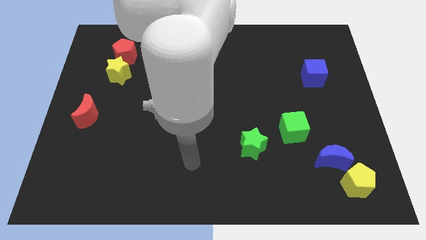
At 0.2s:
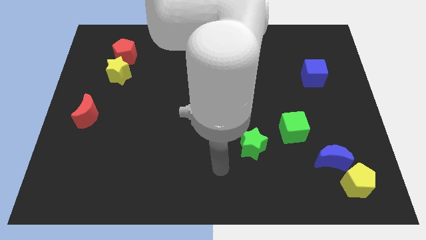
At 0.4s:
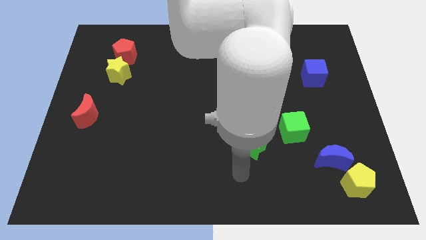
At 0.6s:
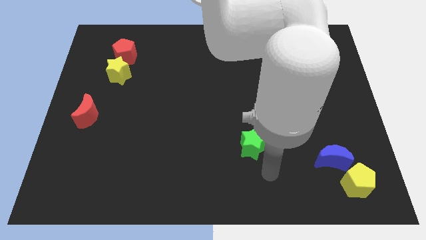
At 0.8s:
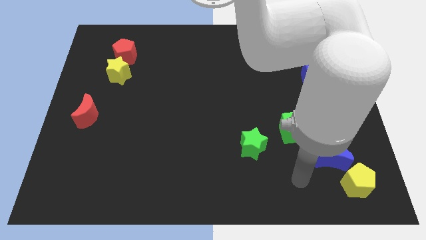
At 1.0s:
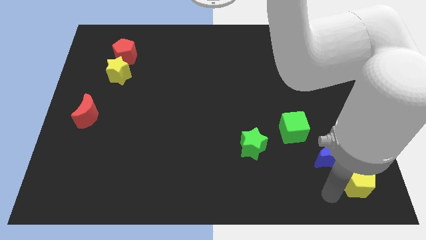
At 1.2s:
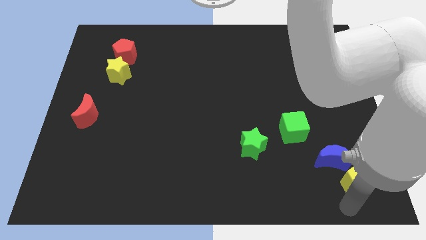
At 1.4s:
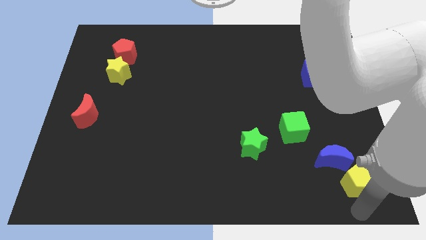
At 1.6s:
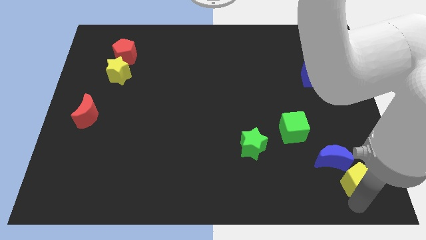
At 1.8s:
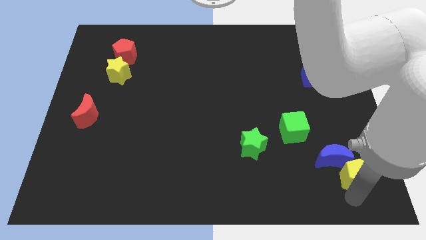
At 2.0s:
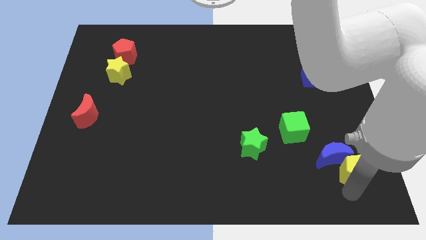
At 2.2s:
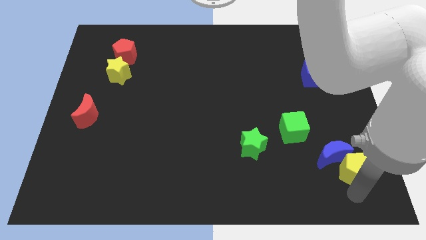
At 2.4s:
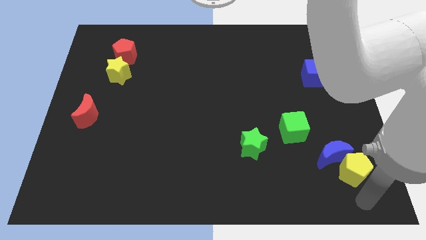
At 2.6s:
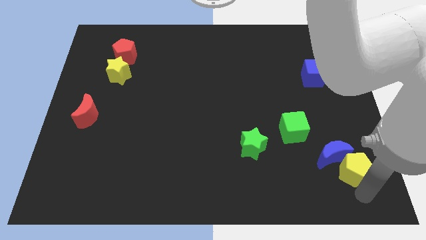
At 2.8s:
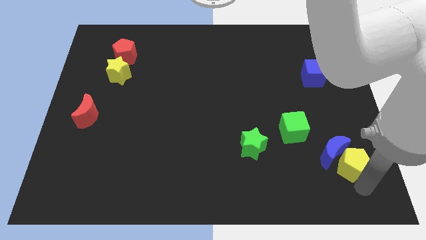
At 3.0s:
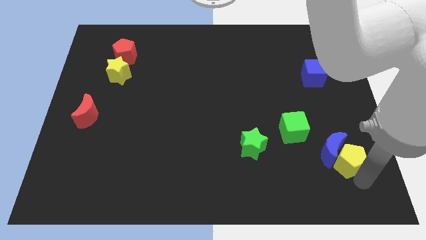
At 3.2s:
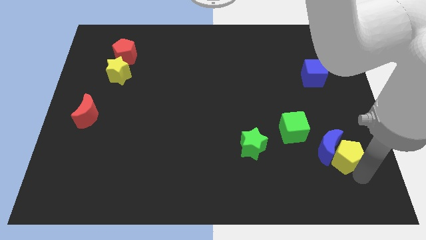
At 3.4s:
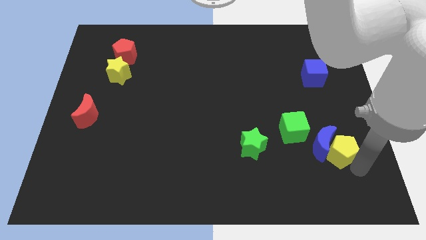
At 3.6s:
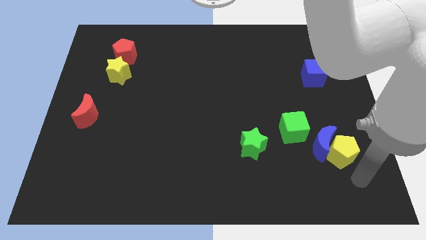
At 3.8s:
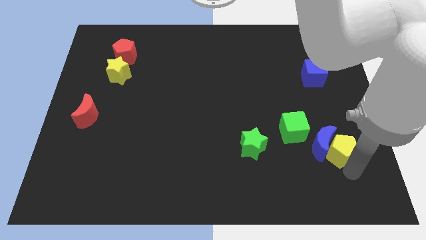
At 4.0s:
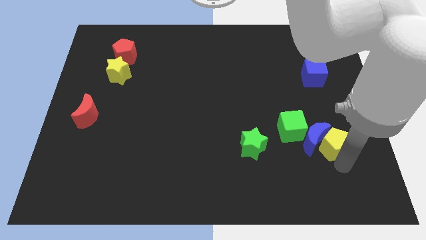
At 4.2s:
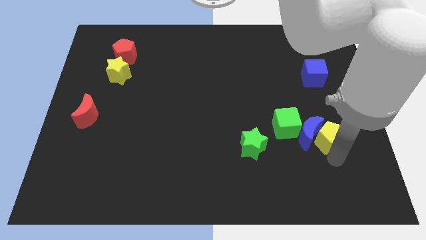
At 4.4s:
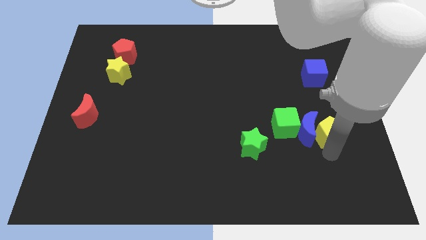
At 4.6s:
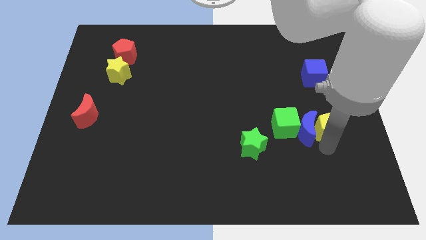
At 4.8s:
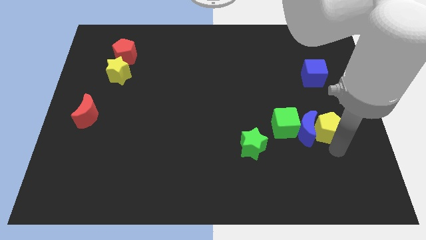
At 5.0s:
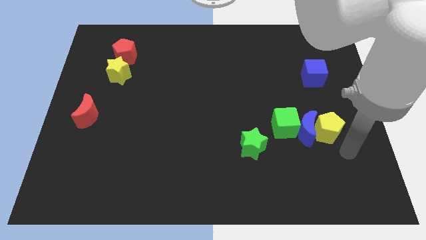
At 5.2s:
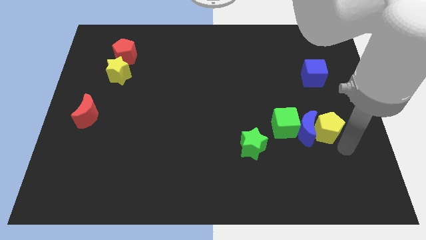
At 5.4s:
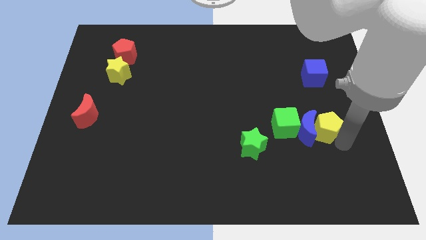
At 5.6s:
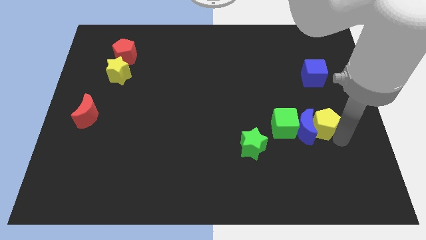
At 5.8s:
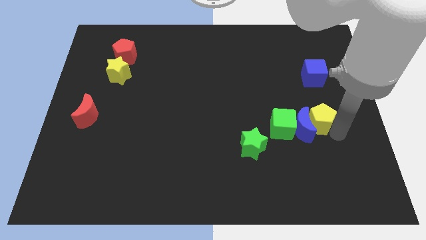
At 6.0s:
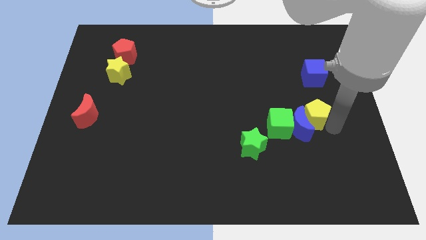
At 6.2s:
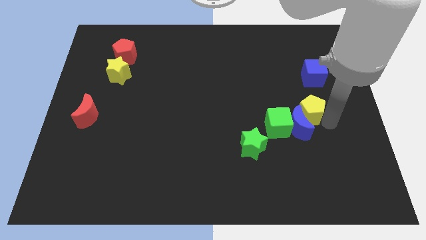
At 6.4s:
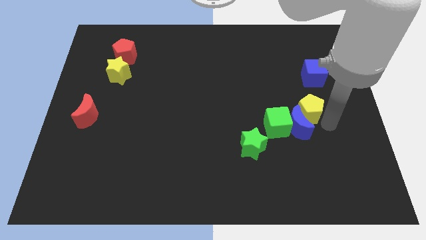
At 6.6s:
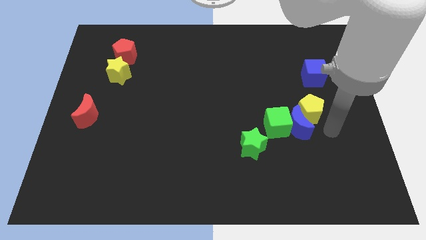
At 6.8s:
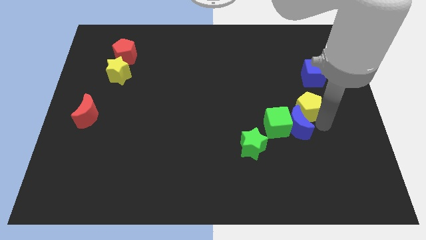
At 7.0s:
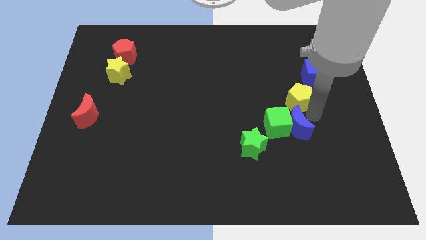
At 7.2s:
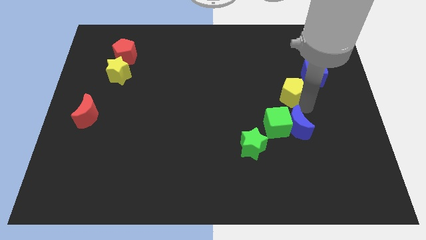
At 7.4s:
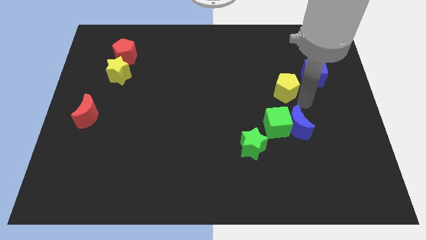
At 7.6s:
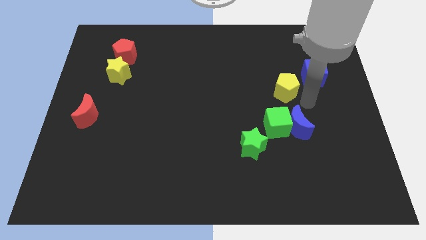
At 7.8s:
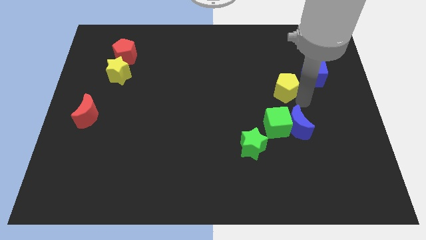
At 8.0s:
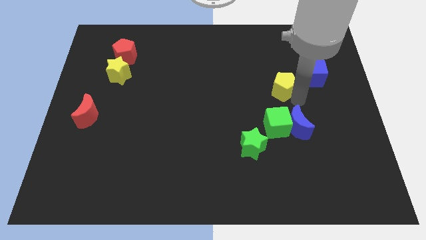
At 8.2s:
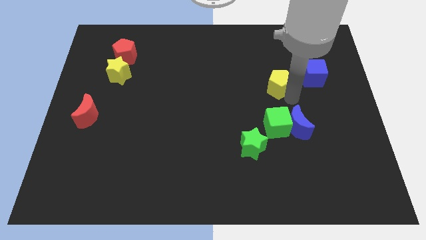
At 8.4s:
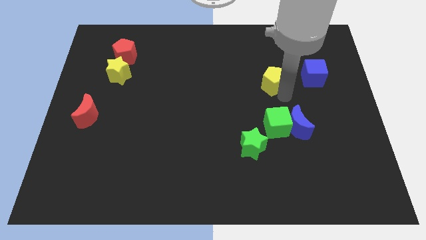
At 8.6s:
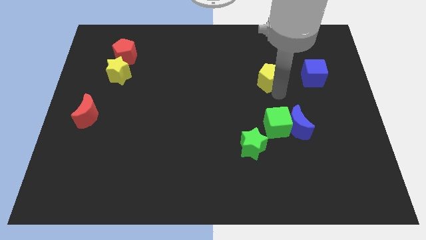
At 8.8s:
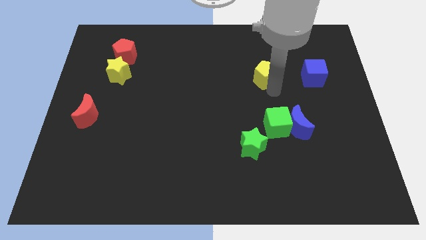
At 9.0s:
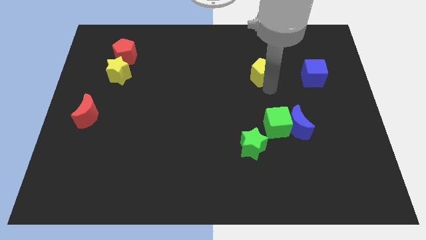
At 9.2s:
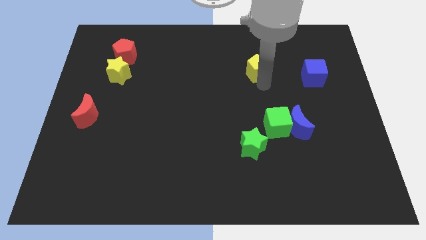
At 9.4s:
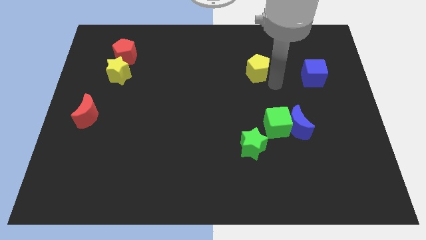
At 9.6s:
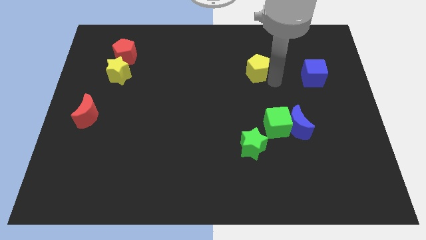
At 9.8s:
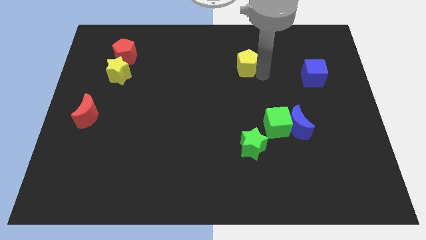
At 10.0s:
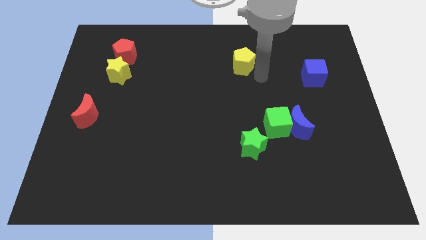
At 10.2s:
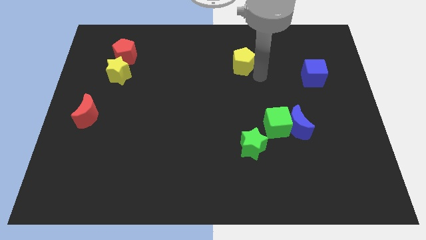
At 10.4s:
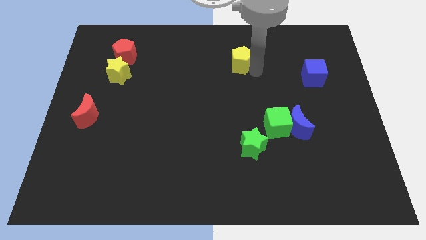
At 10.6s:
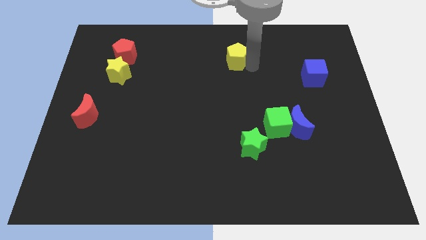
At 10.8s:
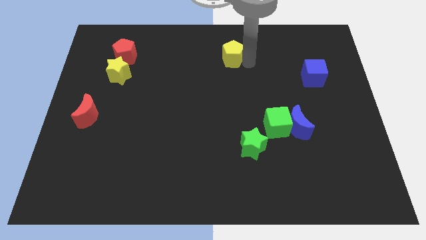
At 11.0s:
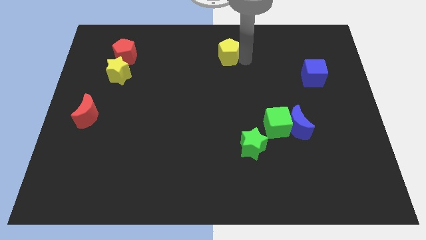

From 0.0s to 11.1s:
slide the yellow pentagon to the top
